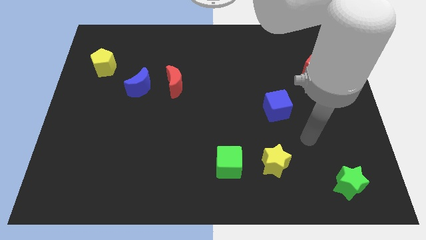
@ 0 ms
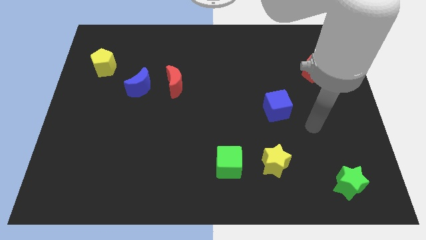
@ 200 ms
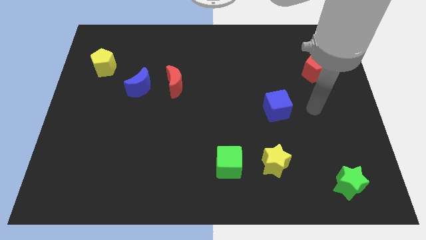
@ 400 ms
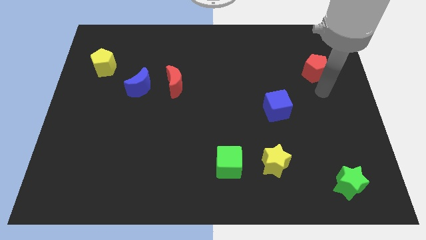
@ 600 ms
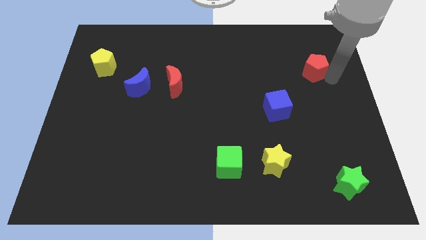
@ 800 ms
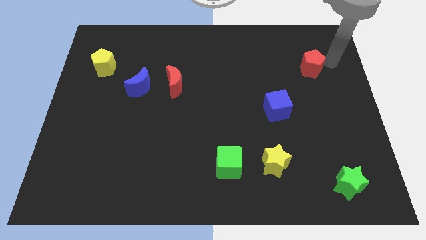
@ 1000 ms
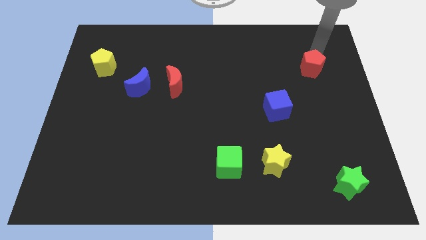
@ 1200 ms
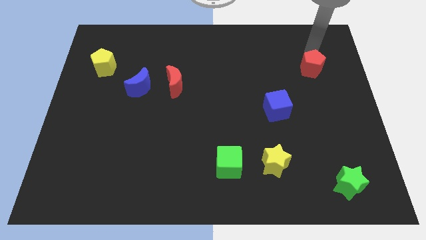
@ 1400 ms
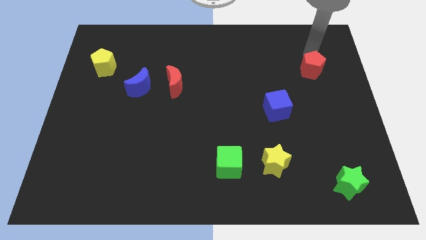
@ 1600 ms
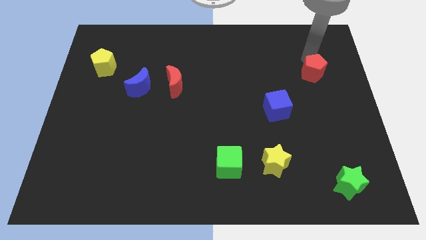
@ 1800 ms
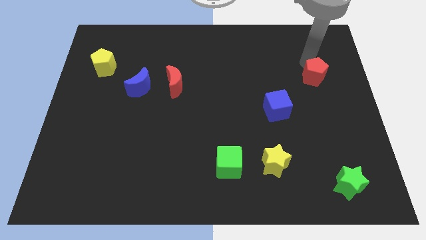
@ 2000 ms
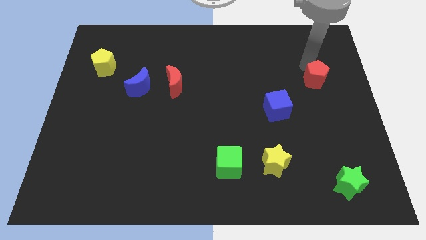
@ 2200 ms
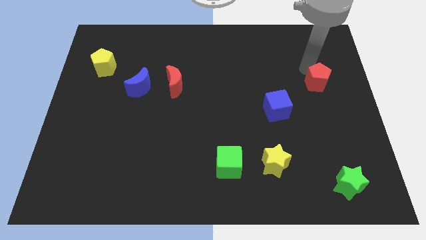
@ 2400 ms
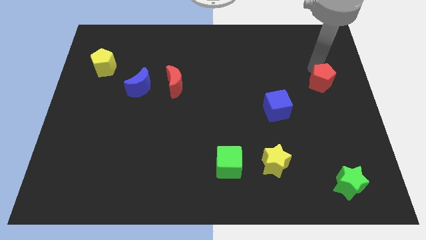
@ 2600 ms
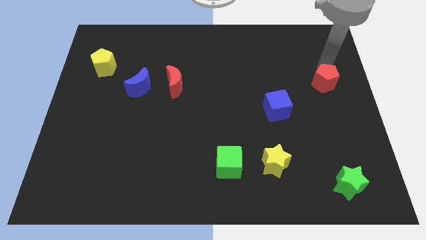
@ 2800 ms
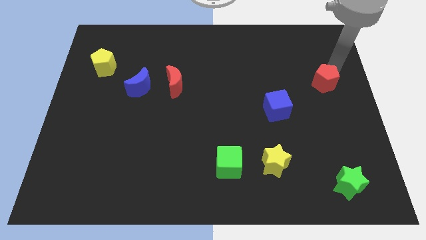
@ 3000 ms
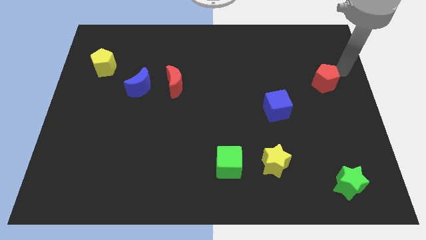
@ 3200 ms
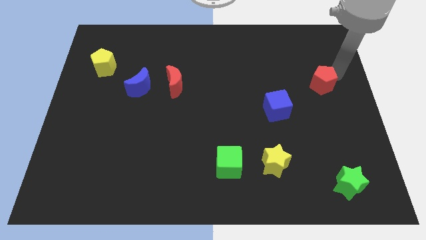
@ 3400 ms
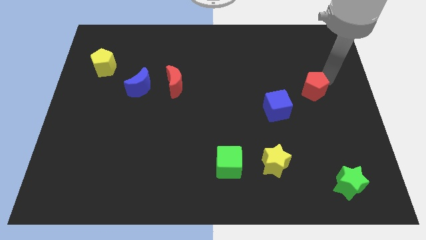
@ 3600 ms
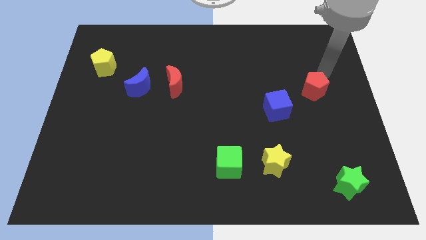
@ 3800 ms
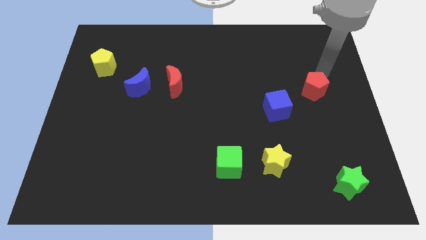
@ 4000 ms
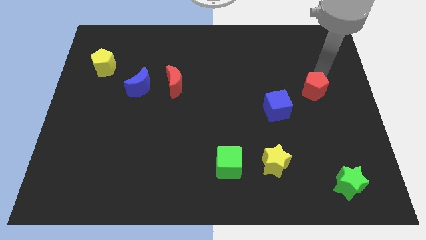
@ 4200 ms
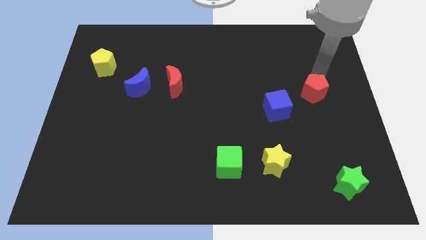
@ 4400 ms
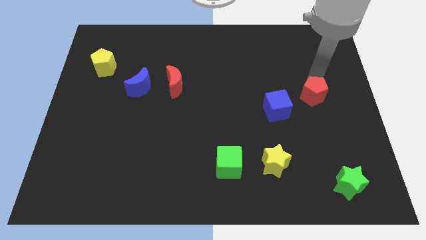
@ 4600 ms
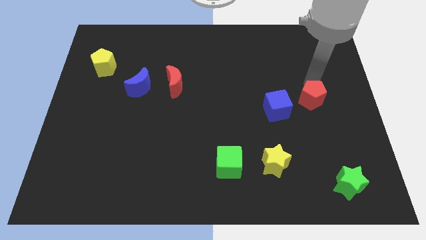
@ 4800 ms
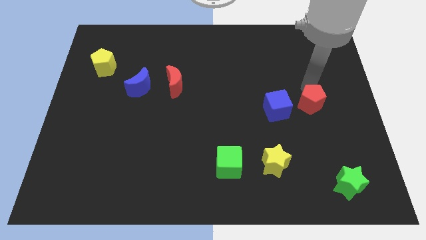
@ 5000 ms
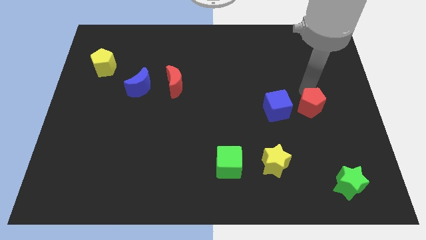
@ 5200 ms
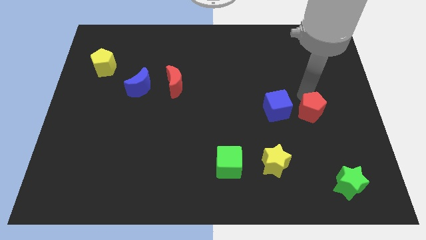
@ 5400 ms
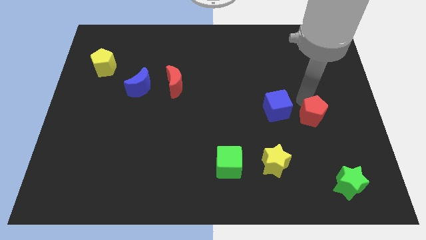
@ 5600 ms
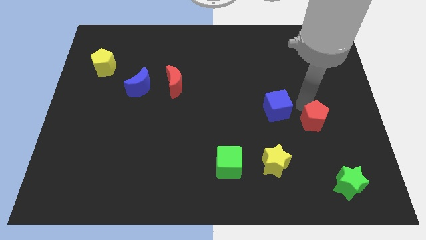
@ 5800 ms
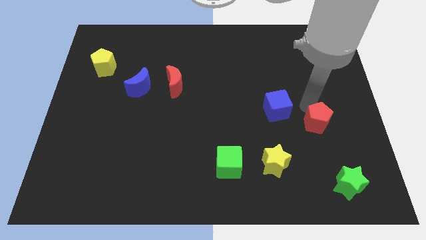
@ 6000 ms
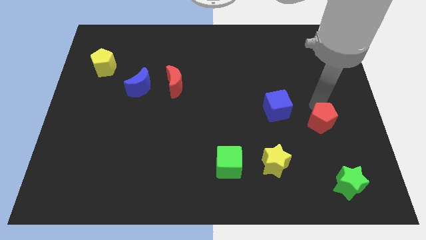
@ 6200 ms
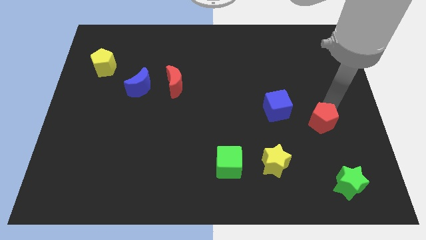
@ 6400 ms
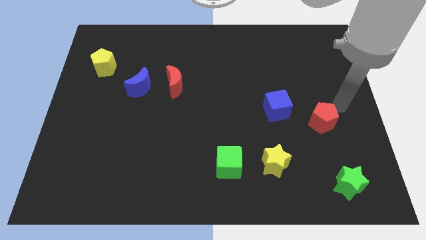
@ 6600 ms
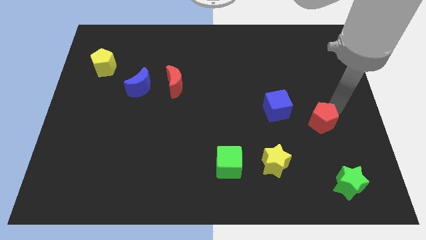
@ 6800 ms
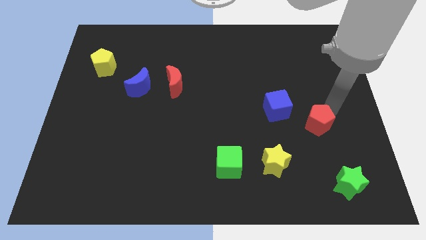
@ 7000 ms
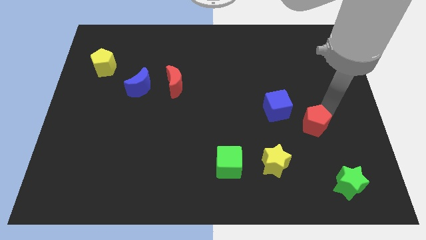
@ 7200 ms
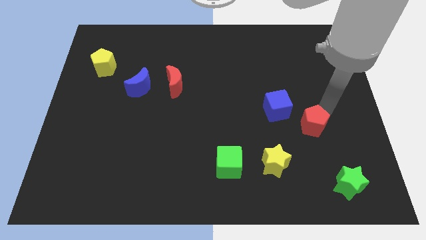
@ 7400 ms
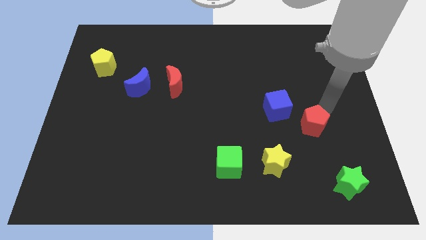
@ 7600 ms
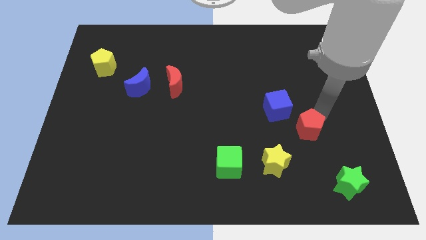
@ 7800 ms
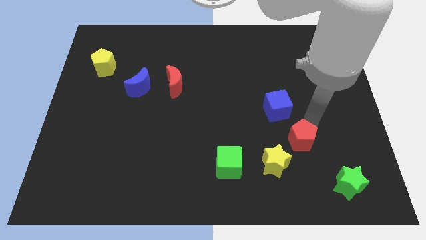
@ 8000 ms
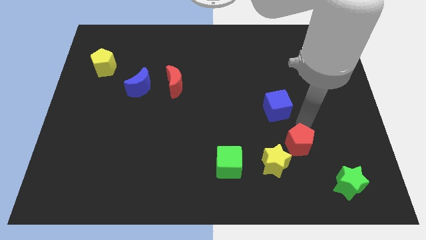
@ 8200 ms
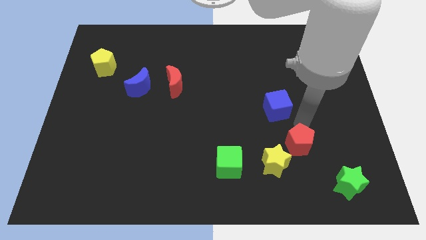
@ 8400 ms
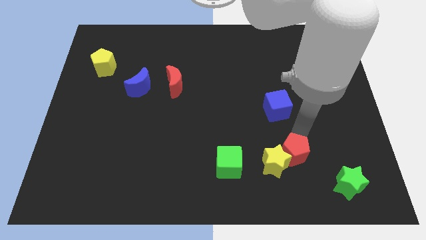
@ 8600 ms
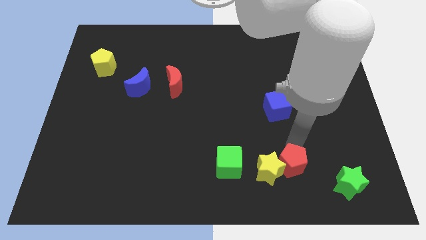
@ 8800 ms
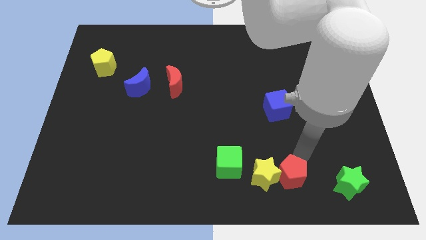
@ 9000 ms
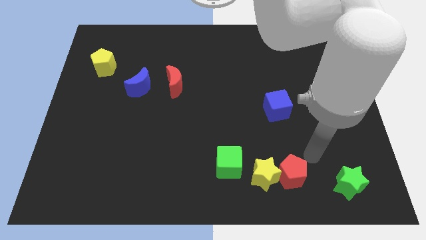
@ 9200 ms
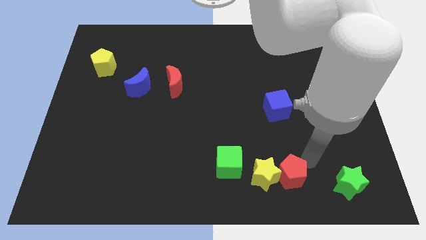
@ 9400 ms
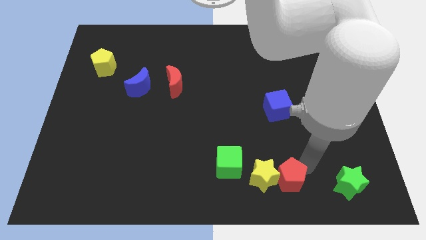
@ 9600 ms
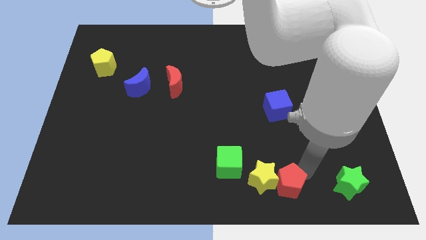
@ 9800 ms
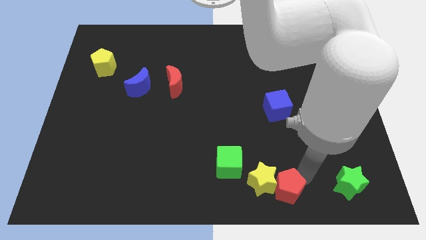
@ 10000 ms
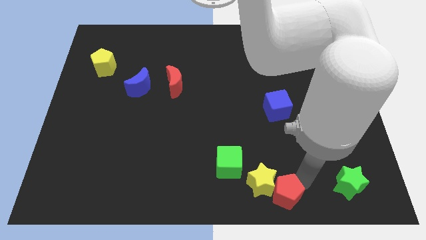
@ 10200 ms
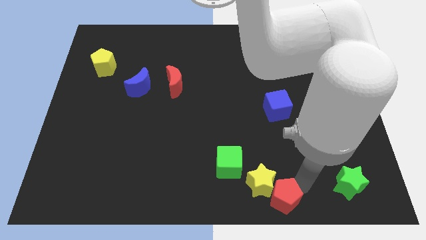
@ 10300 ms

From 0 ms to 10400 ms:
put the red pentagon to the bottom

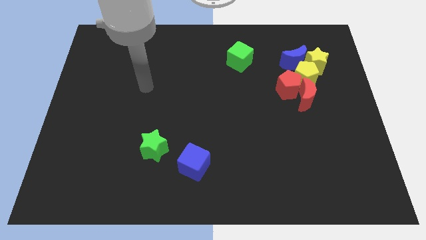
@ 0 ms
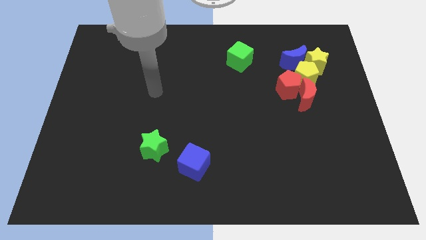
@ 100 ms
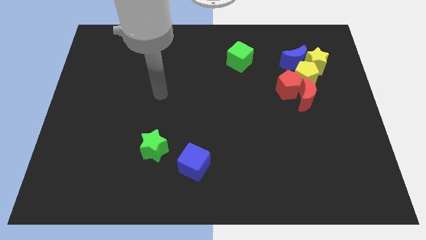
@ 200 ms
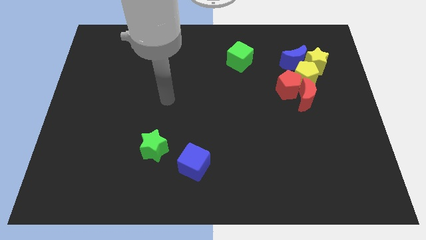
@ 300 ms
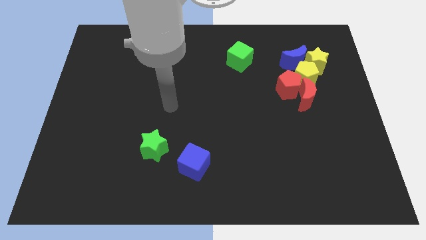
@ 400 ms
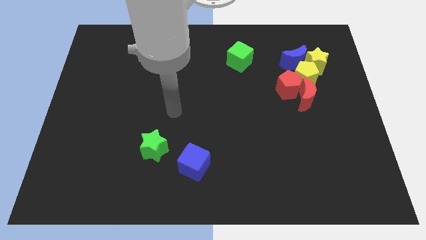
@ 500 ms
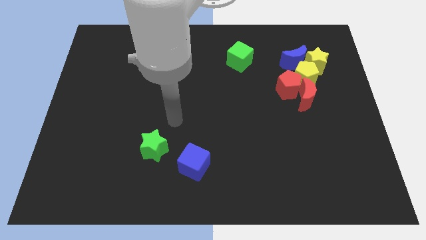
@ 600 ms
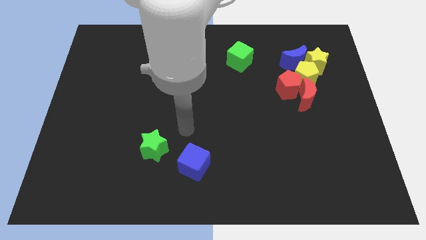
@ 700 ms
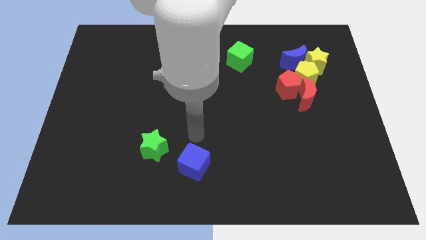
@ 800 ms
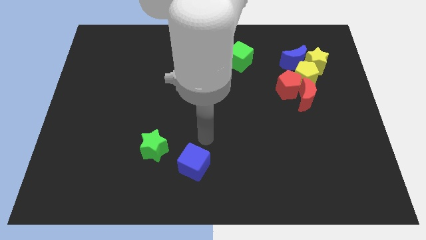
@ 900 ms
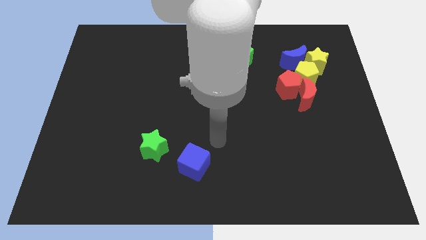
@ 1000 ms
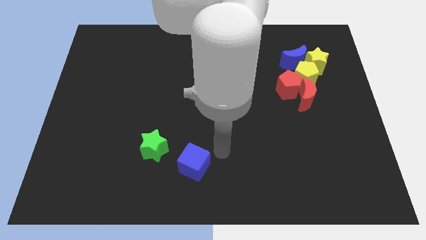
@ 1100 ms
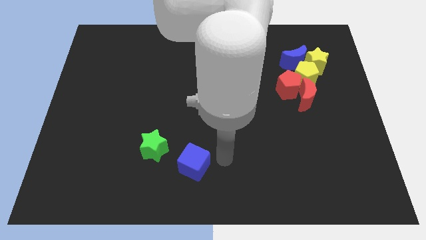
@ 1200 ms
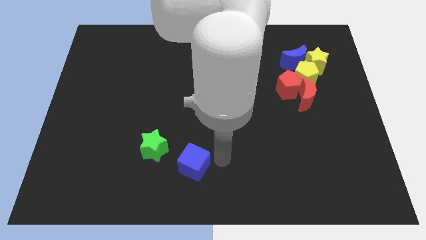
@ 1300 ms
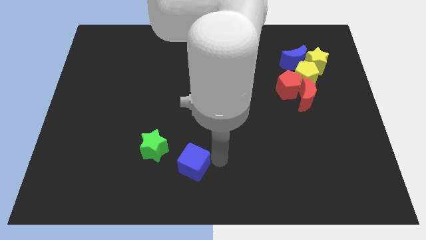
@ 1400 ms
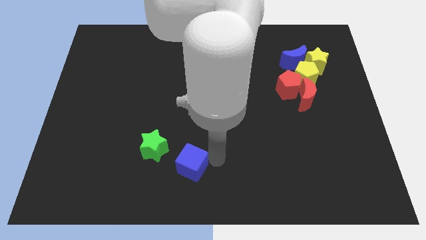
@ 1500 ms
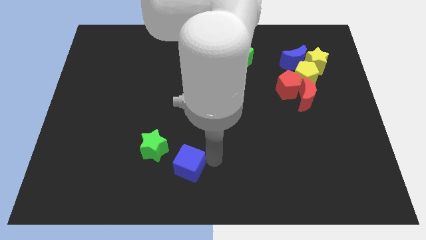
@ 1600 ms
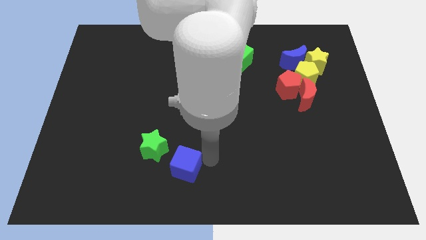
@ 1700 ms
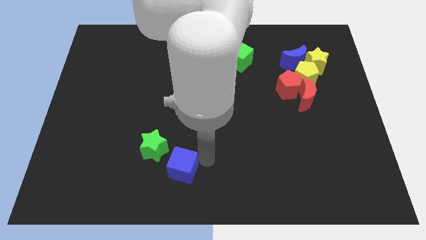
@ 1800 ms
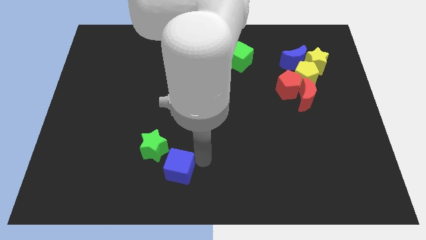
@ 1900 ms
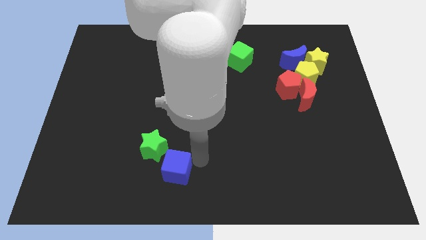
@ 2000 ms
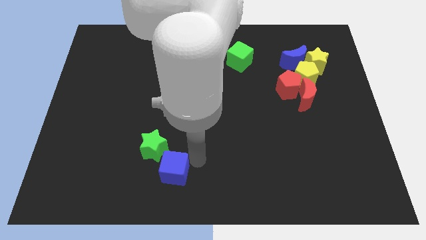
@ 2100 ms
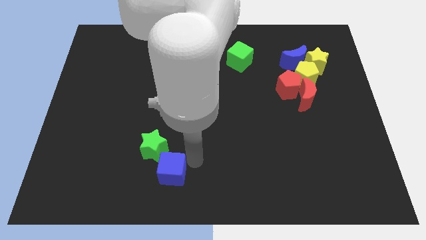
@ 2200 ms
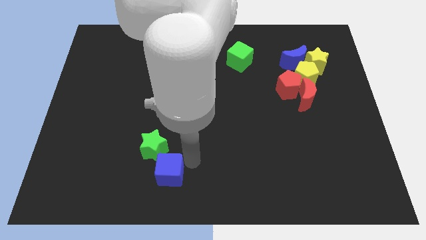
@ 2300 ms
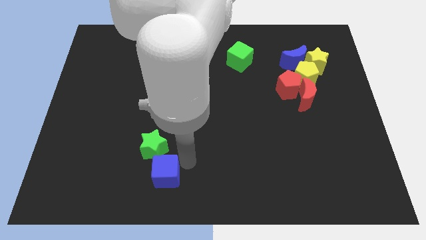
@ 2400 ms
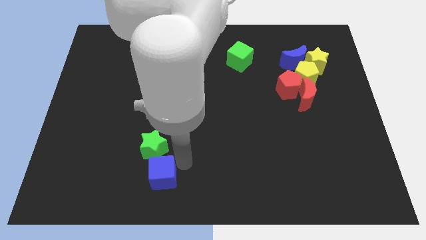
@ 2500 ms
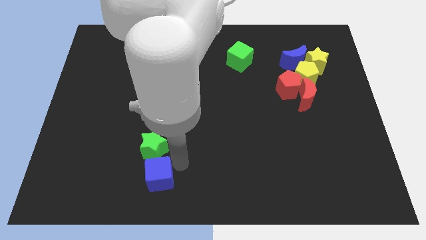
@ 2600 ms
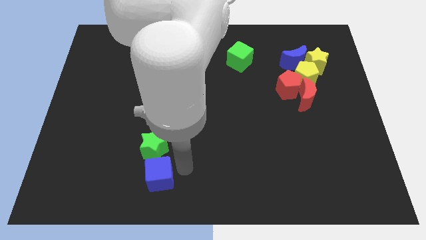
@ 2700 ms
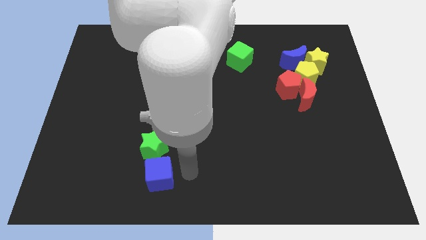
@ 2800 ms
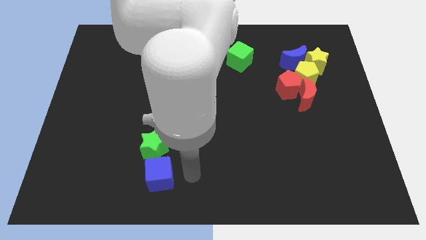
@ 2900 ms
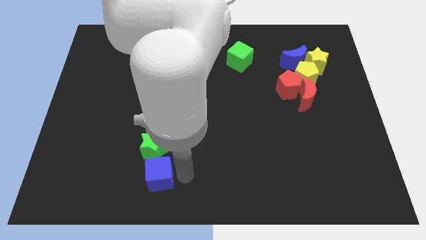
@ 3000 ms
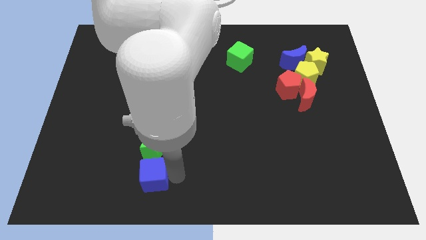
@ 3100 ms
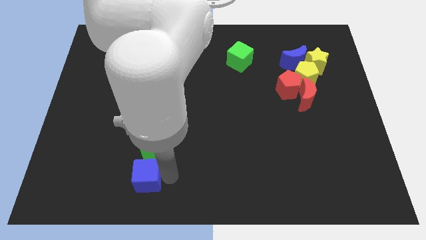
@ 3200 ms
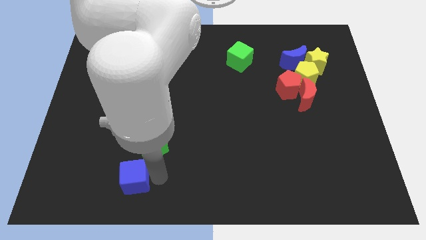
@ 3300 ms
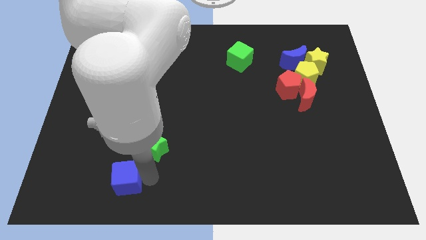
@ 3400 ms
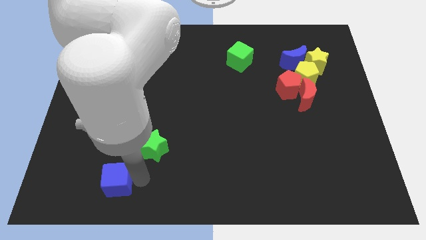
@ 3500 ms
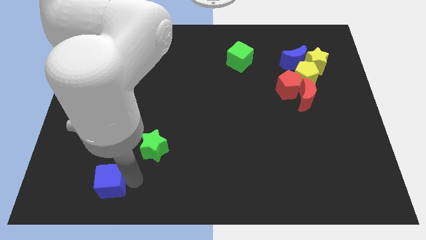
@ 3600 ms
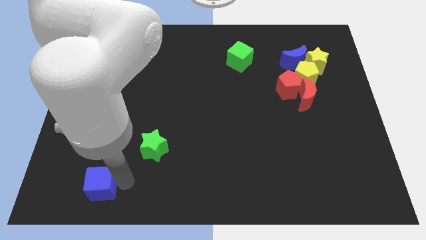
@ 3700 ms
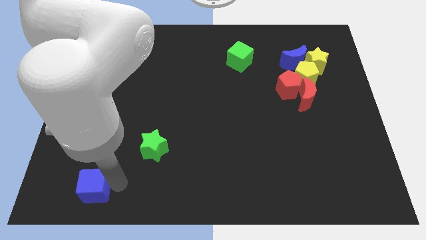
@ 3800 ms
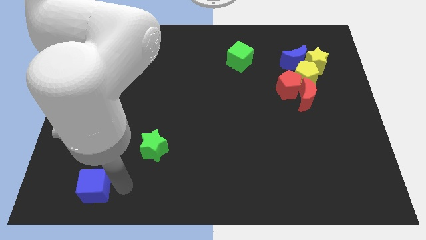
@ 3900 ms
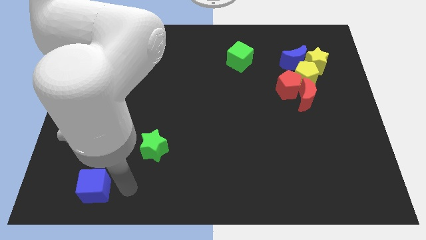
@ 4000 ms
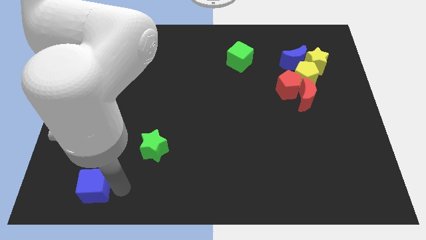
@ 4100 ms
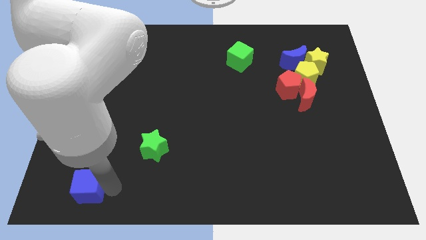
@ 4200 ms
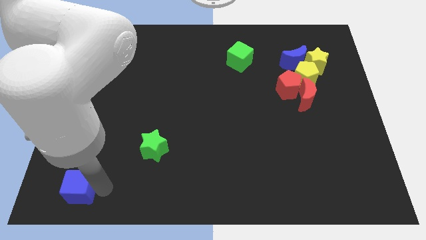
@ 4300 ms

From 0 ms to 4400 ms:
slide the blue cube to the lower left corner
